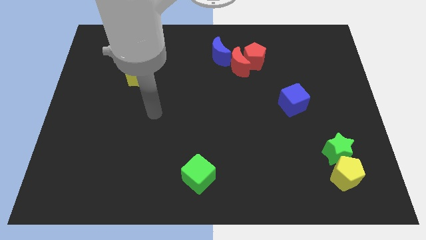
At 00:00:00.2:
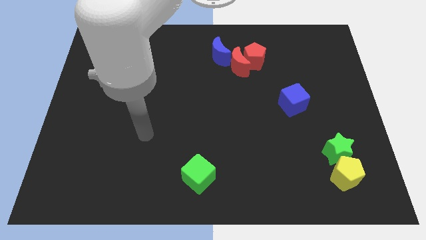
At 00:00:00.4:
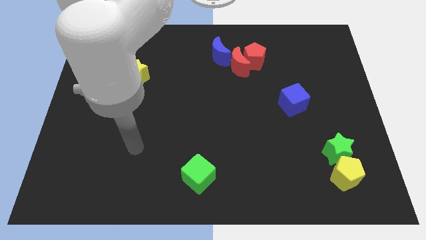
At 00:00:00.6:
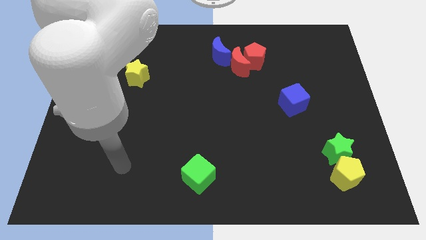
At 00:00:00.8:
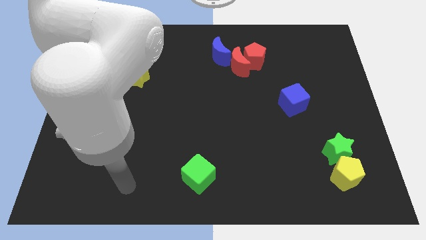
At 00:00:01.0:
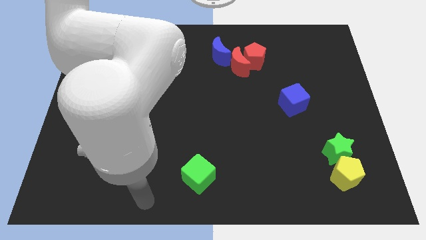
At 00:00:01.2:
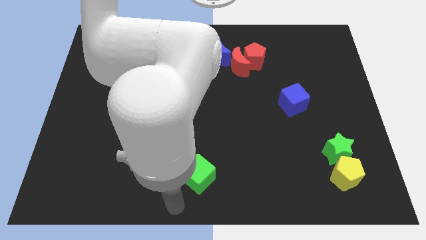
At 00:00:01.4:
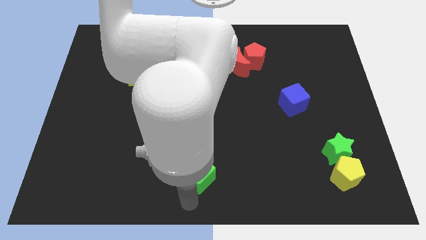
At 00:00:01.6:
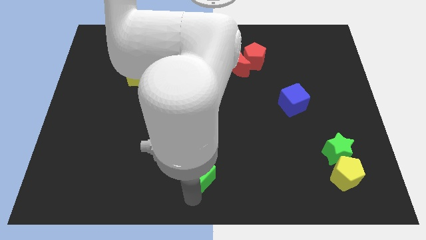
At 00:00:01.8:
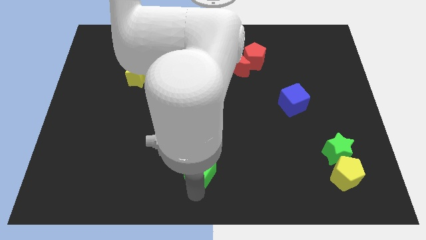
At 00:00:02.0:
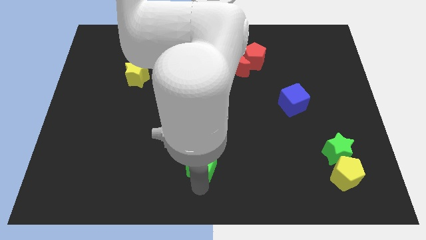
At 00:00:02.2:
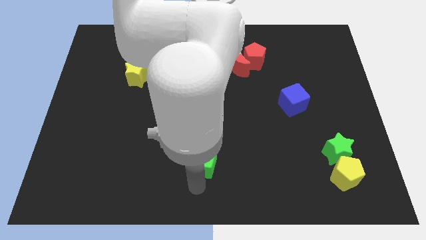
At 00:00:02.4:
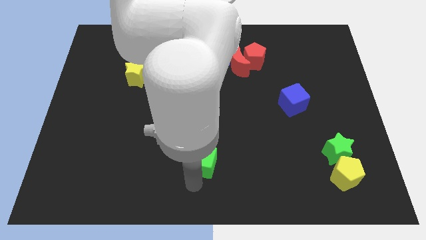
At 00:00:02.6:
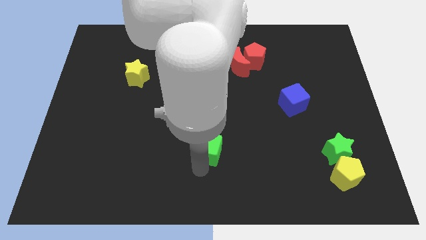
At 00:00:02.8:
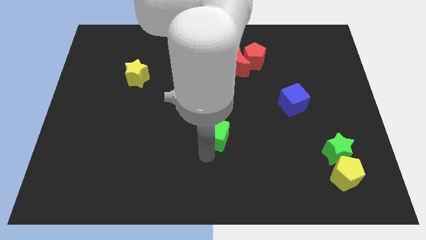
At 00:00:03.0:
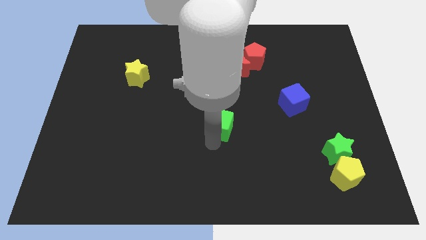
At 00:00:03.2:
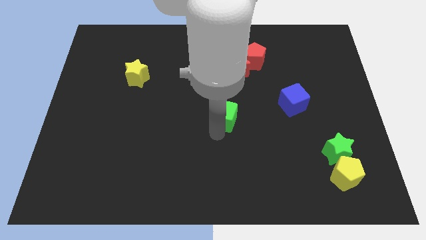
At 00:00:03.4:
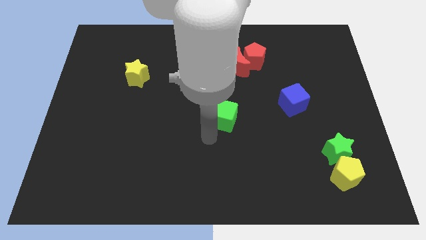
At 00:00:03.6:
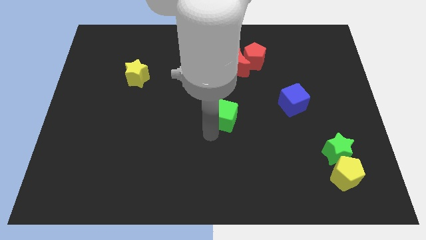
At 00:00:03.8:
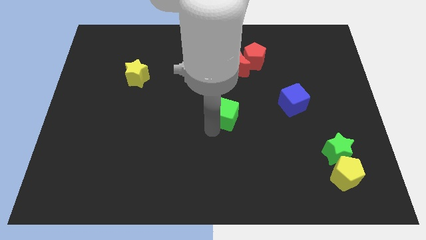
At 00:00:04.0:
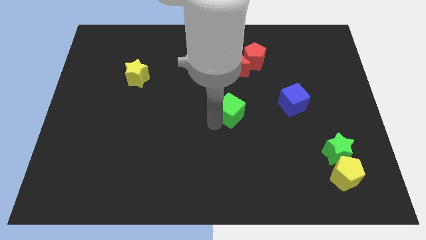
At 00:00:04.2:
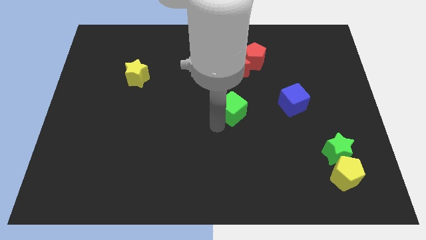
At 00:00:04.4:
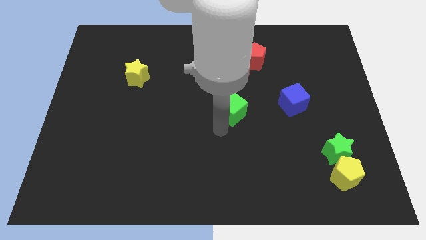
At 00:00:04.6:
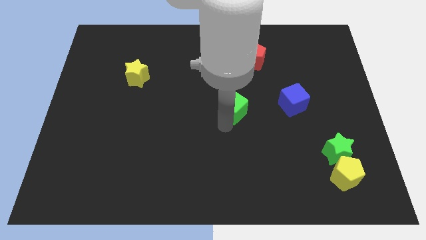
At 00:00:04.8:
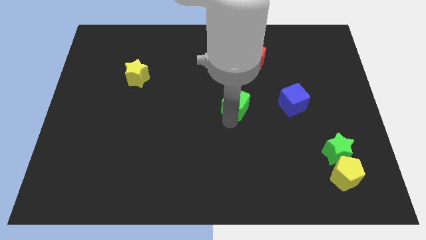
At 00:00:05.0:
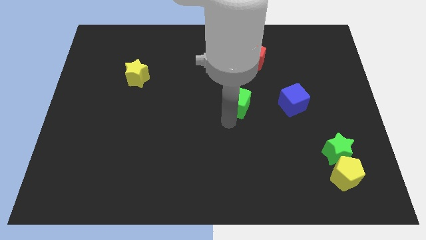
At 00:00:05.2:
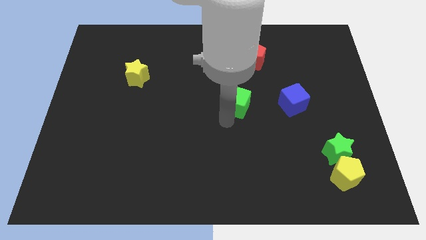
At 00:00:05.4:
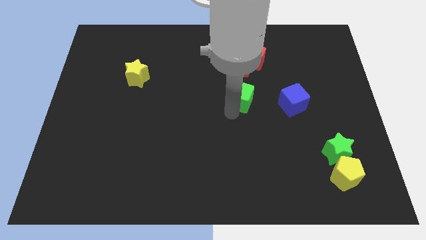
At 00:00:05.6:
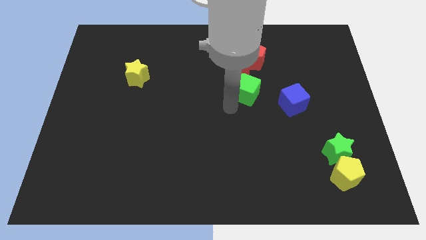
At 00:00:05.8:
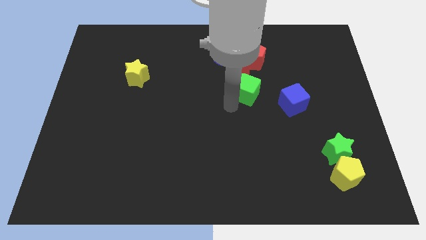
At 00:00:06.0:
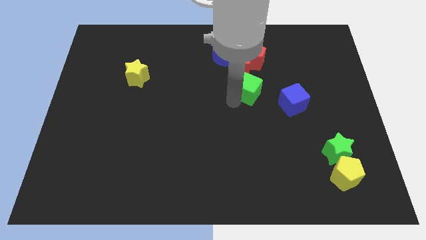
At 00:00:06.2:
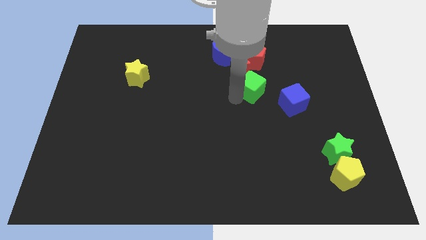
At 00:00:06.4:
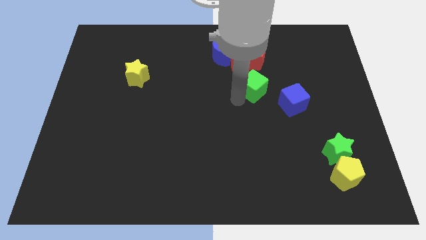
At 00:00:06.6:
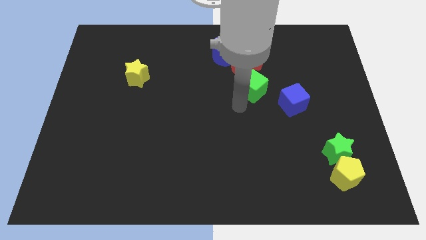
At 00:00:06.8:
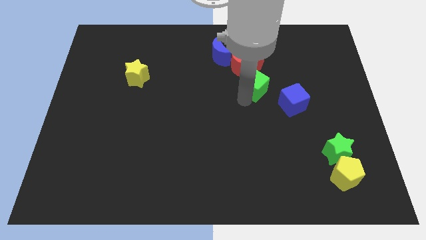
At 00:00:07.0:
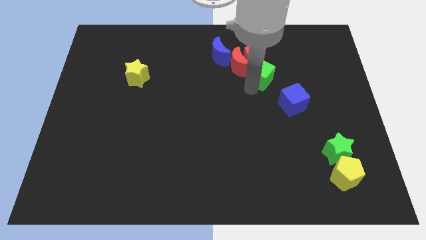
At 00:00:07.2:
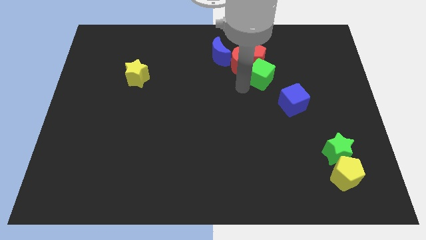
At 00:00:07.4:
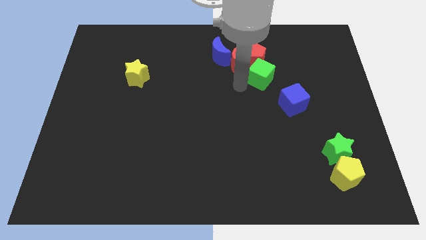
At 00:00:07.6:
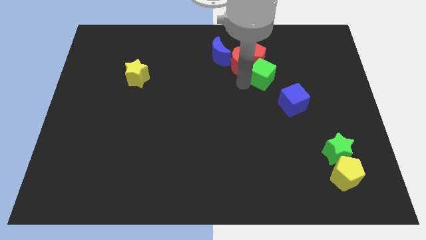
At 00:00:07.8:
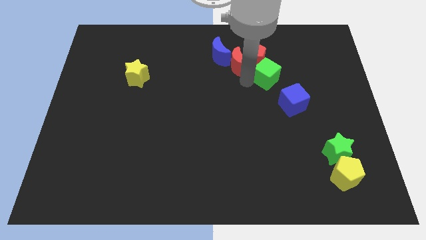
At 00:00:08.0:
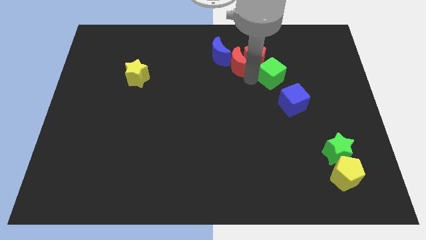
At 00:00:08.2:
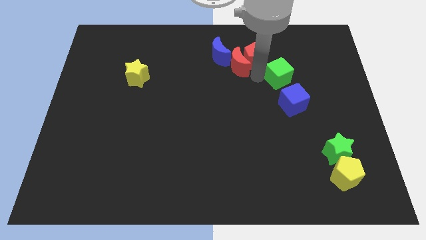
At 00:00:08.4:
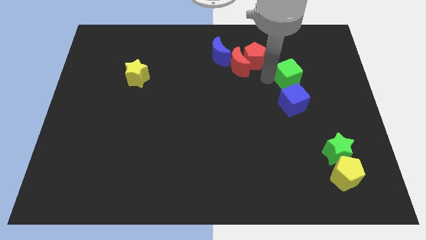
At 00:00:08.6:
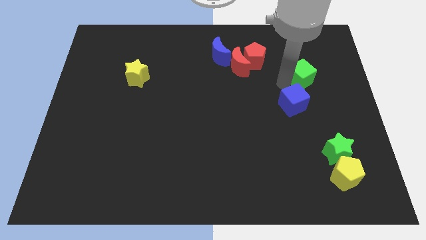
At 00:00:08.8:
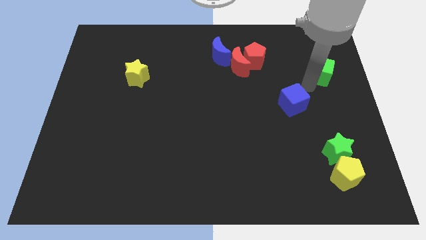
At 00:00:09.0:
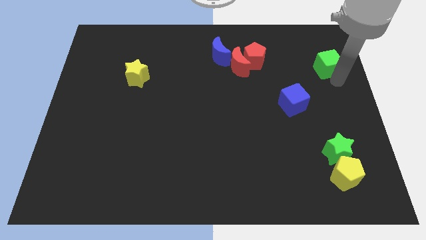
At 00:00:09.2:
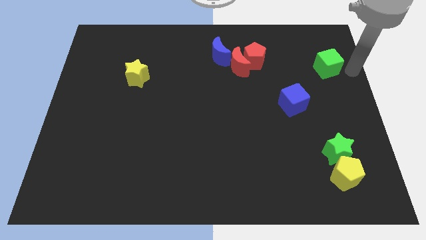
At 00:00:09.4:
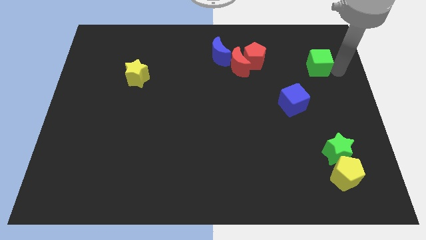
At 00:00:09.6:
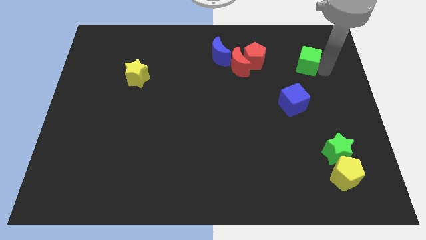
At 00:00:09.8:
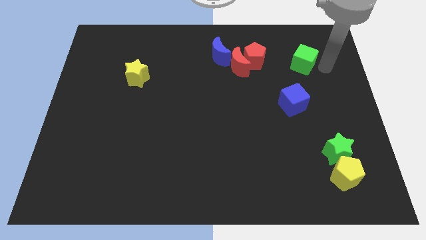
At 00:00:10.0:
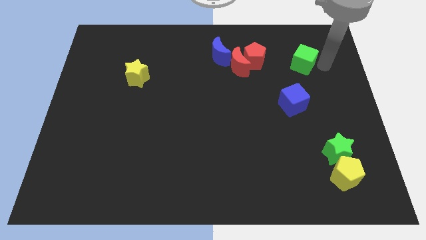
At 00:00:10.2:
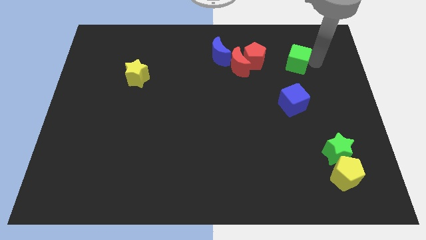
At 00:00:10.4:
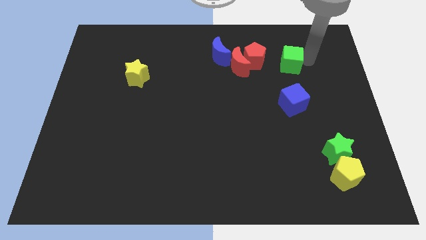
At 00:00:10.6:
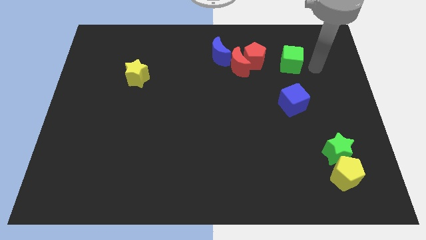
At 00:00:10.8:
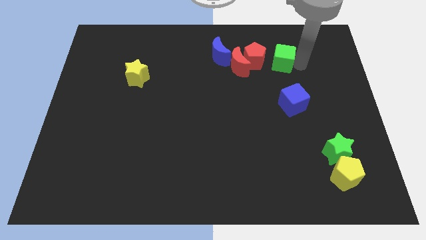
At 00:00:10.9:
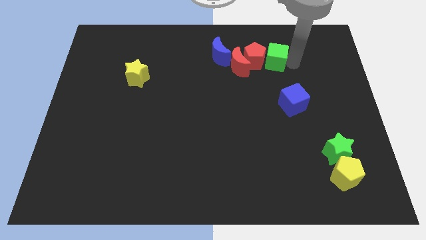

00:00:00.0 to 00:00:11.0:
slide the green cube to the right of the blue moon

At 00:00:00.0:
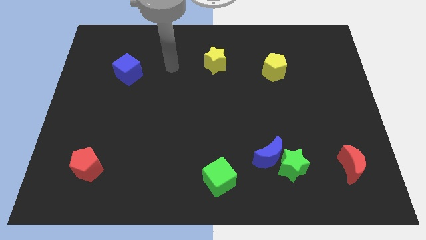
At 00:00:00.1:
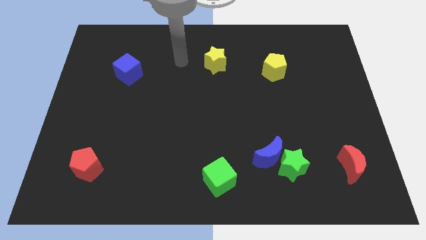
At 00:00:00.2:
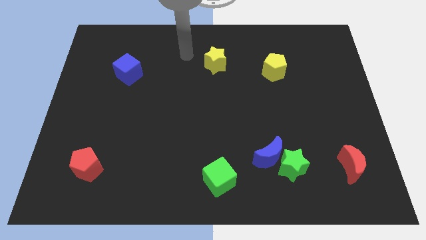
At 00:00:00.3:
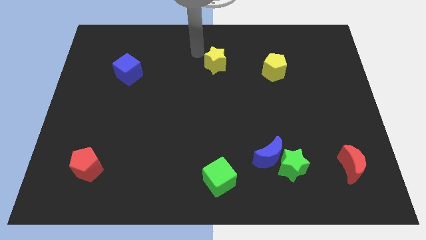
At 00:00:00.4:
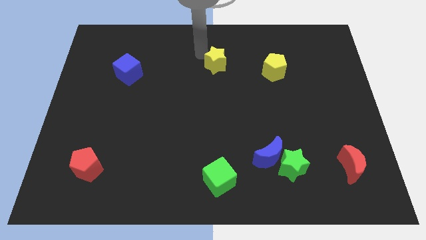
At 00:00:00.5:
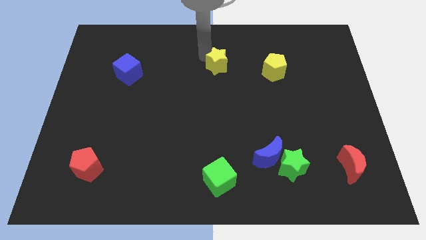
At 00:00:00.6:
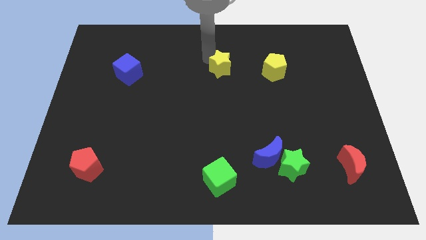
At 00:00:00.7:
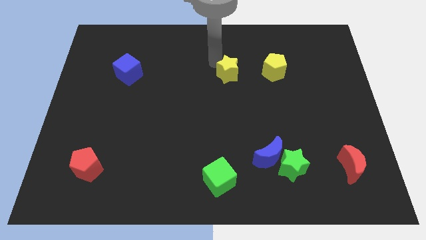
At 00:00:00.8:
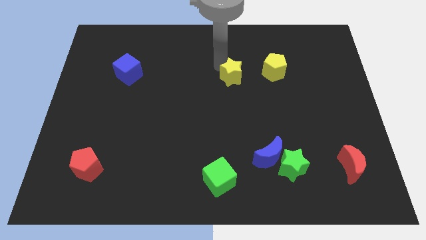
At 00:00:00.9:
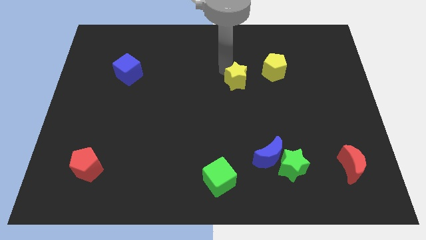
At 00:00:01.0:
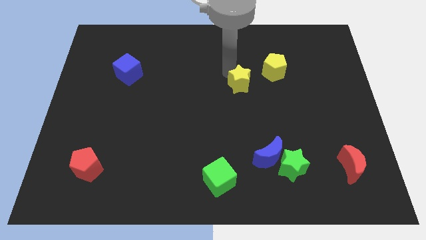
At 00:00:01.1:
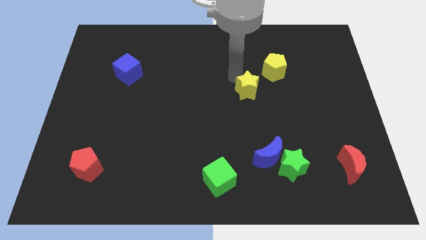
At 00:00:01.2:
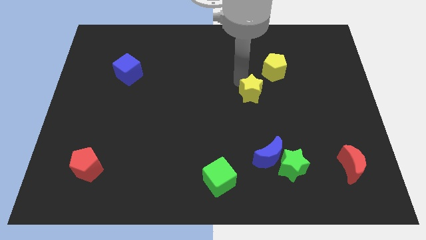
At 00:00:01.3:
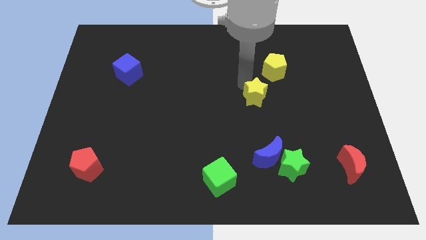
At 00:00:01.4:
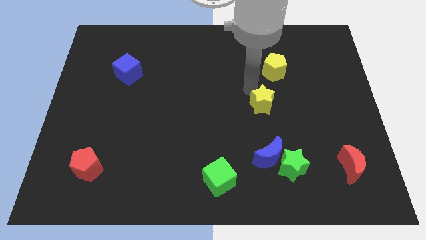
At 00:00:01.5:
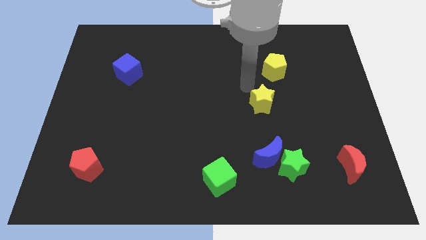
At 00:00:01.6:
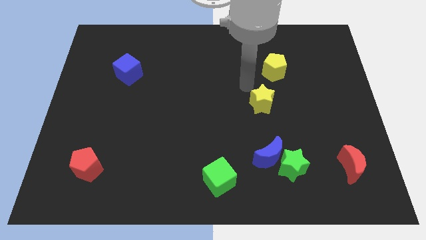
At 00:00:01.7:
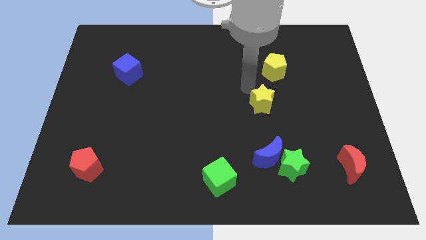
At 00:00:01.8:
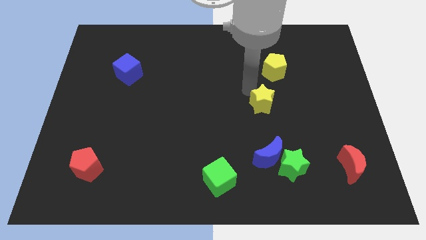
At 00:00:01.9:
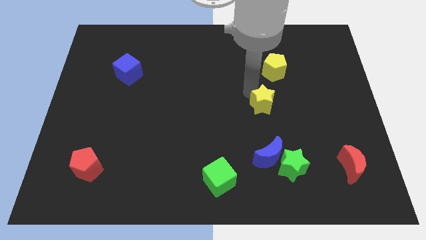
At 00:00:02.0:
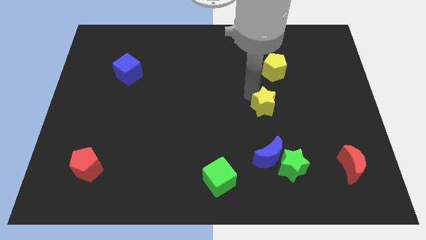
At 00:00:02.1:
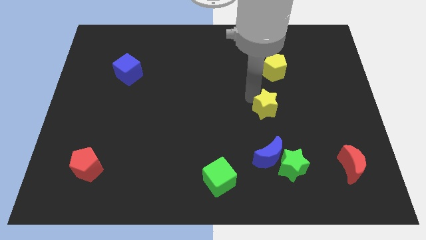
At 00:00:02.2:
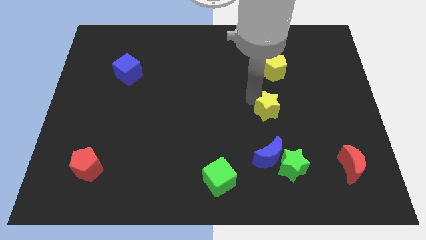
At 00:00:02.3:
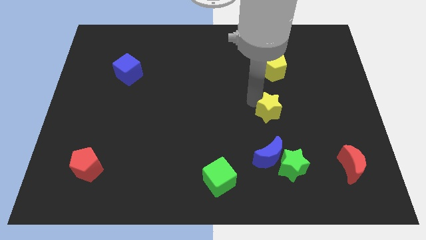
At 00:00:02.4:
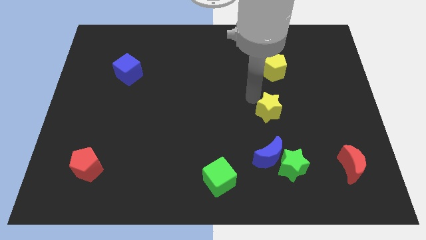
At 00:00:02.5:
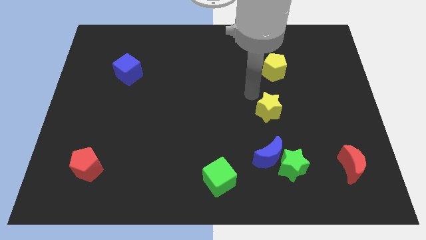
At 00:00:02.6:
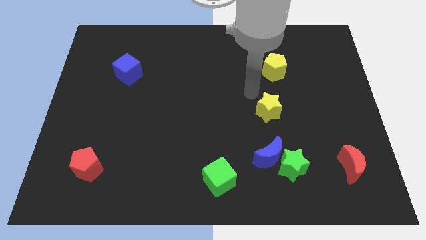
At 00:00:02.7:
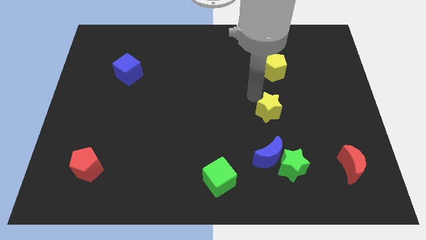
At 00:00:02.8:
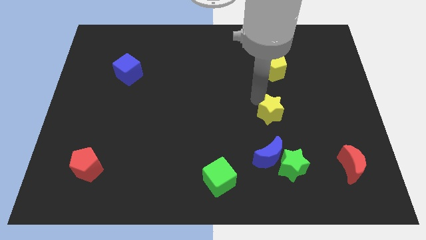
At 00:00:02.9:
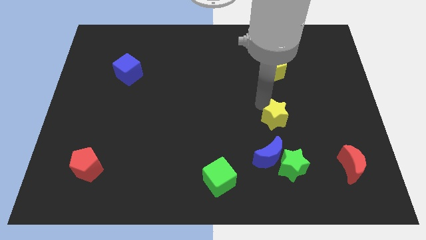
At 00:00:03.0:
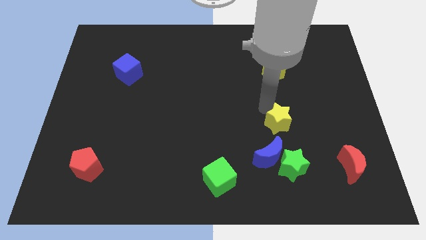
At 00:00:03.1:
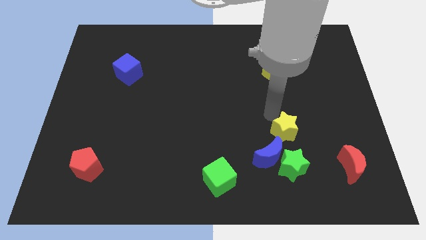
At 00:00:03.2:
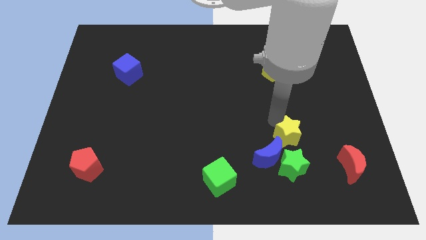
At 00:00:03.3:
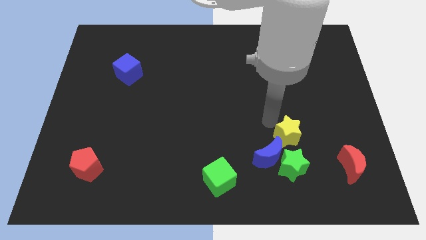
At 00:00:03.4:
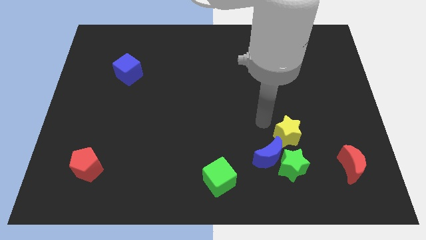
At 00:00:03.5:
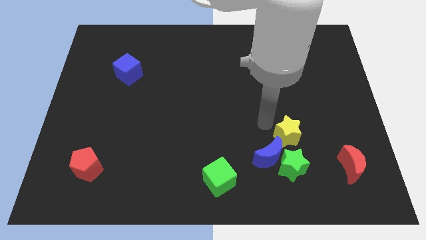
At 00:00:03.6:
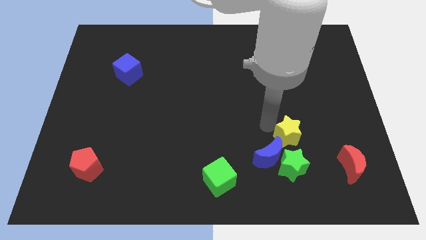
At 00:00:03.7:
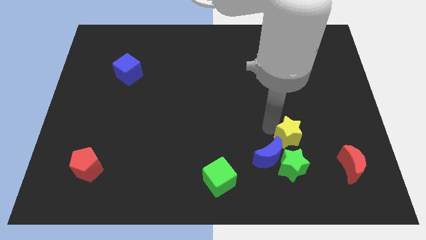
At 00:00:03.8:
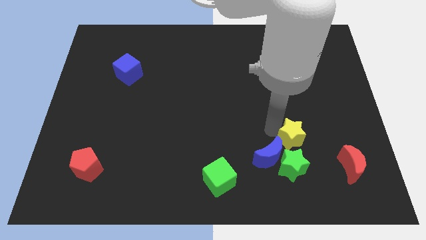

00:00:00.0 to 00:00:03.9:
slide the yellow star diagonally up and to the right of the green star
